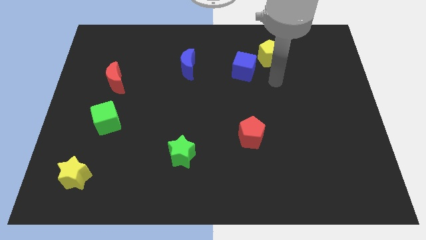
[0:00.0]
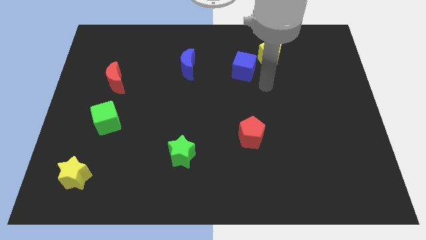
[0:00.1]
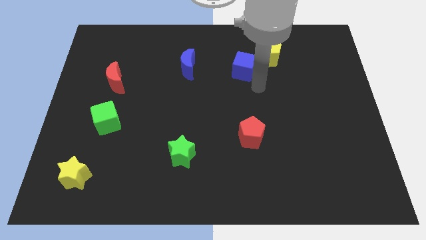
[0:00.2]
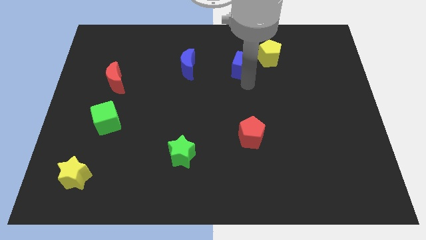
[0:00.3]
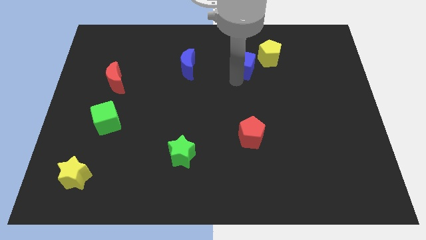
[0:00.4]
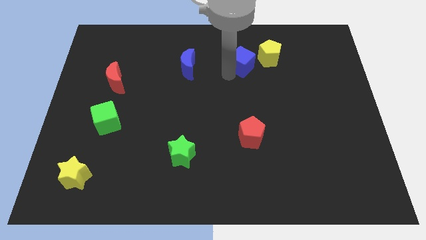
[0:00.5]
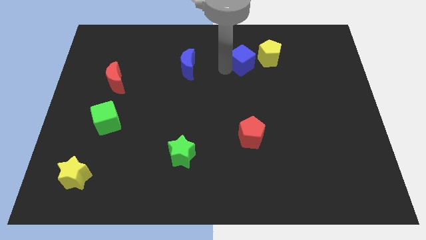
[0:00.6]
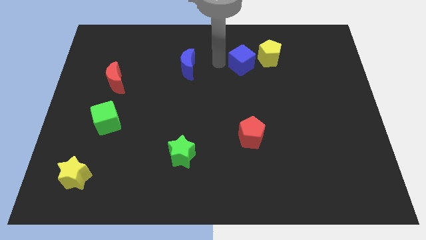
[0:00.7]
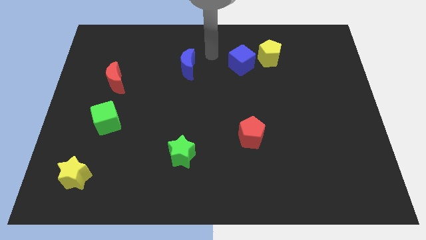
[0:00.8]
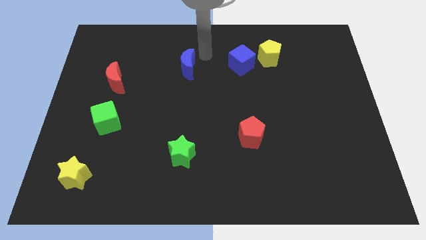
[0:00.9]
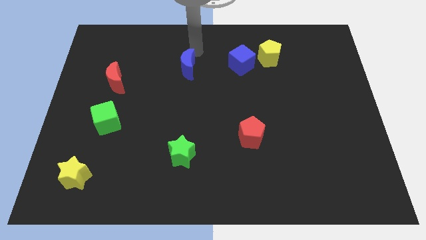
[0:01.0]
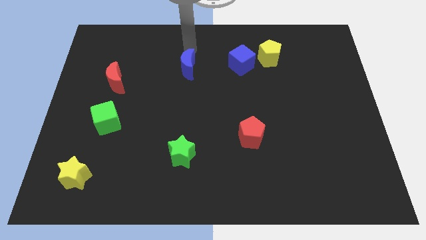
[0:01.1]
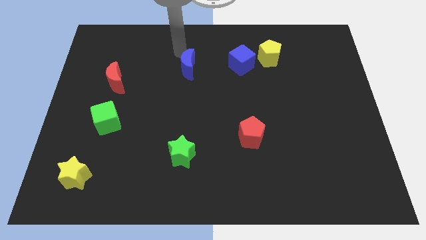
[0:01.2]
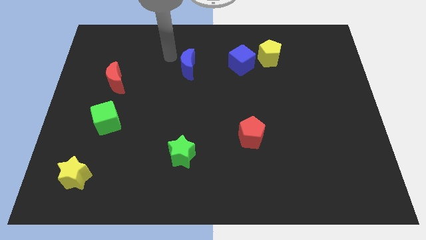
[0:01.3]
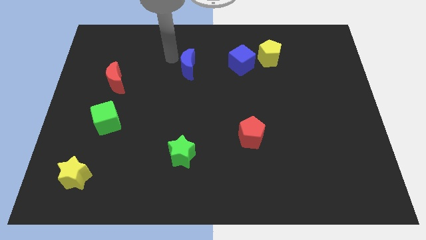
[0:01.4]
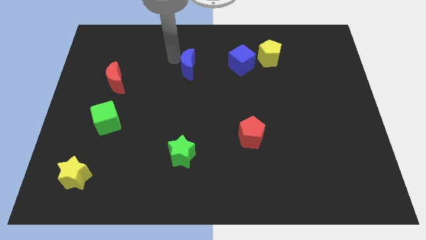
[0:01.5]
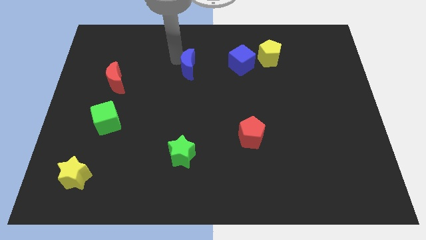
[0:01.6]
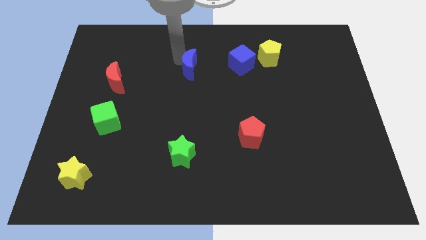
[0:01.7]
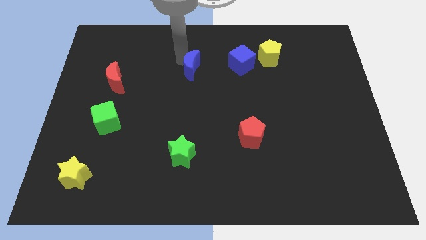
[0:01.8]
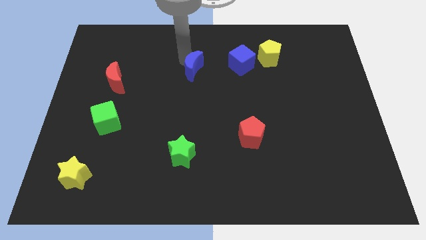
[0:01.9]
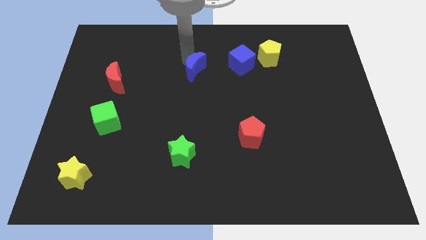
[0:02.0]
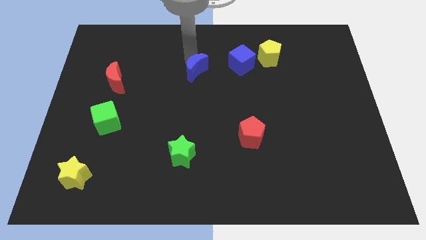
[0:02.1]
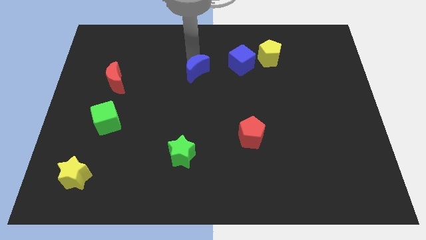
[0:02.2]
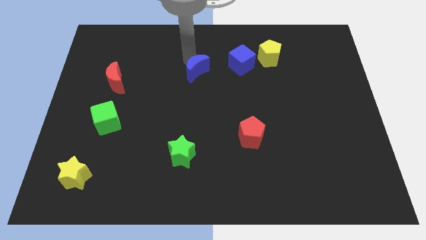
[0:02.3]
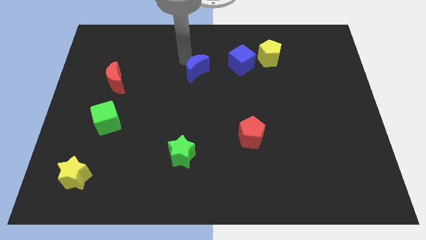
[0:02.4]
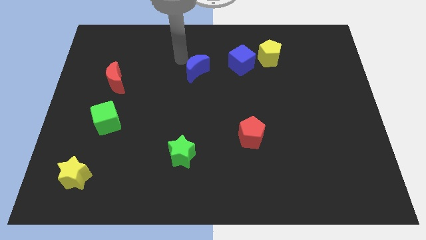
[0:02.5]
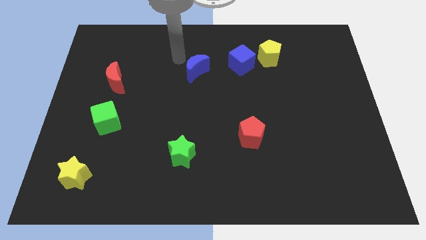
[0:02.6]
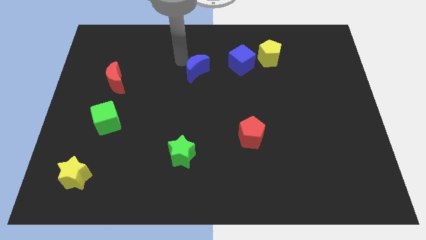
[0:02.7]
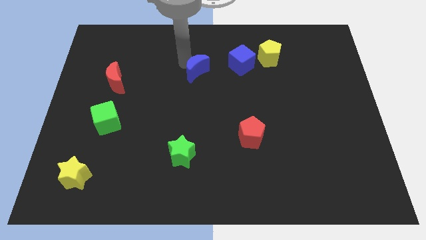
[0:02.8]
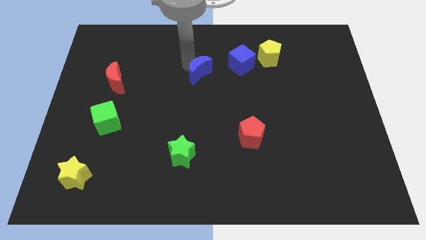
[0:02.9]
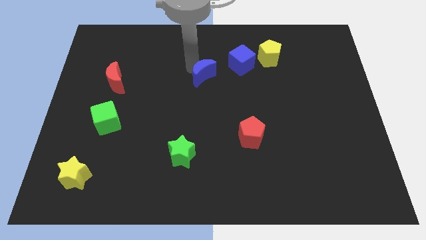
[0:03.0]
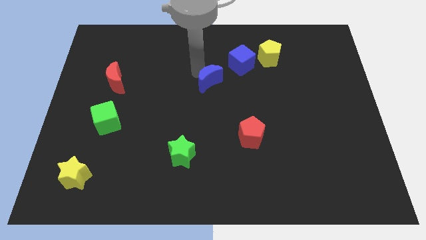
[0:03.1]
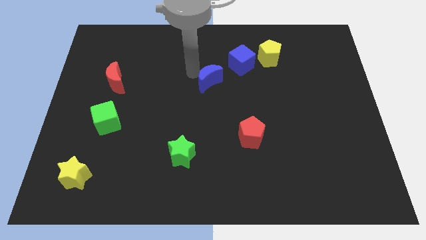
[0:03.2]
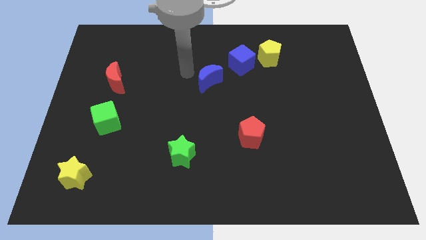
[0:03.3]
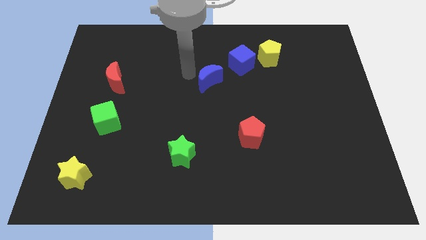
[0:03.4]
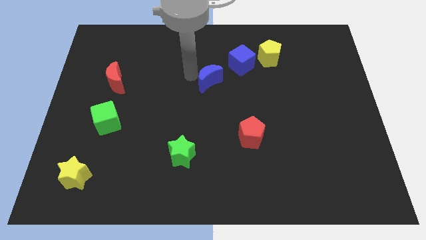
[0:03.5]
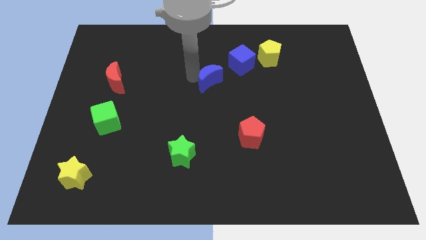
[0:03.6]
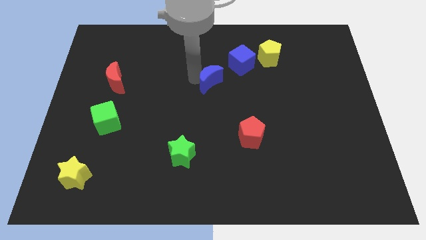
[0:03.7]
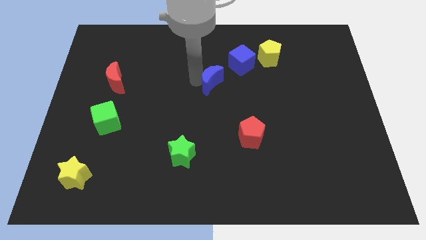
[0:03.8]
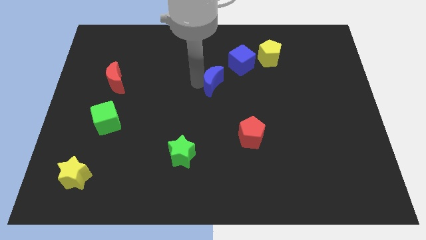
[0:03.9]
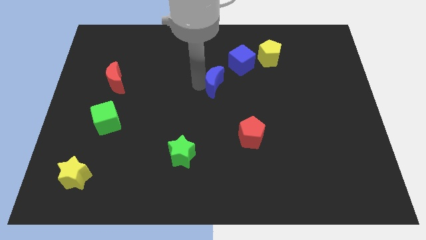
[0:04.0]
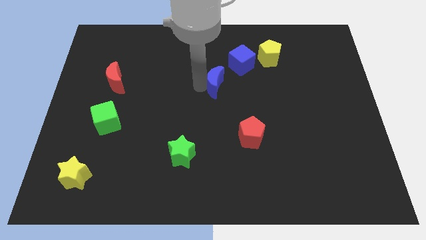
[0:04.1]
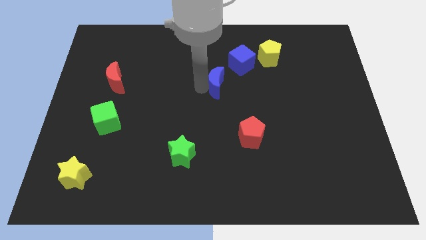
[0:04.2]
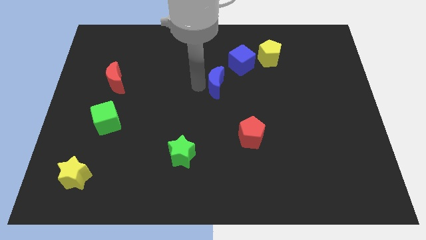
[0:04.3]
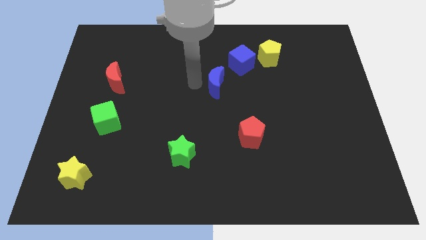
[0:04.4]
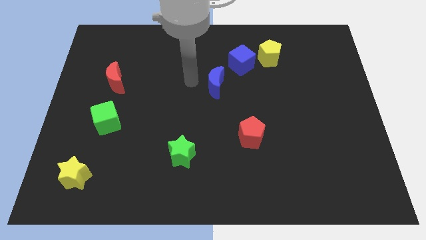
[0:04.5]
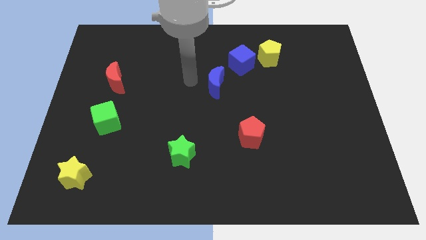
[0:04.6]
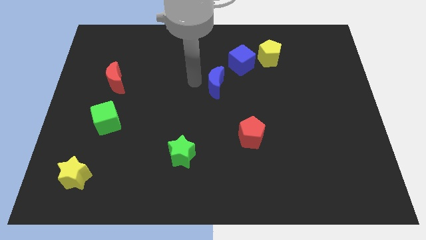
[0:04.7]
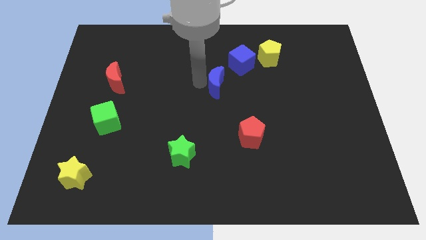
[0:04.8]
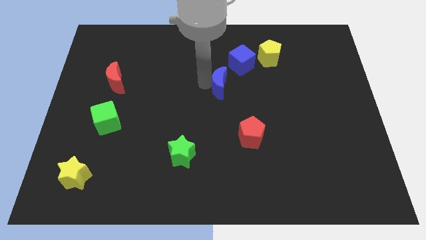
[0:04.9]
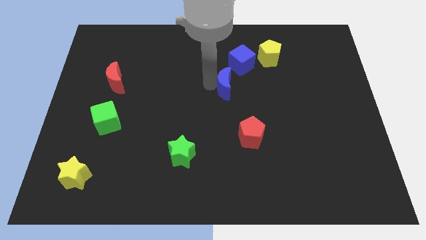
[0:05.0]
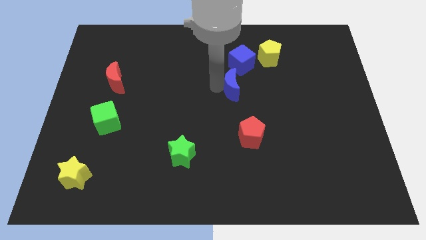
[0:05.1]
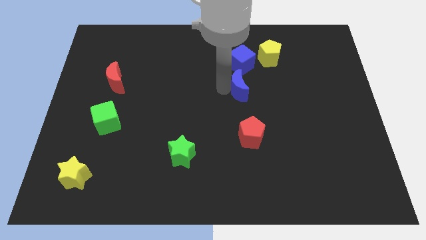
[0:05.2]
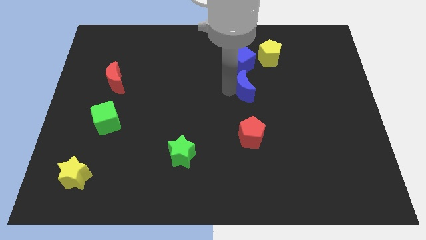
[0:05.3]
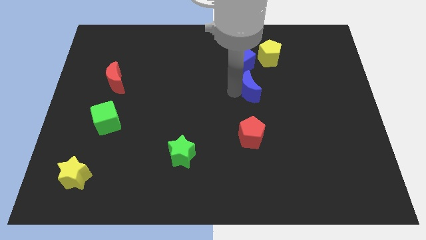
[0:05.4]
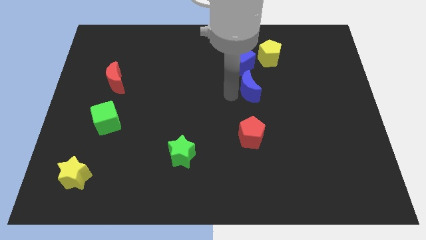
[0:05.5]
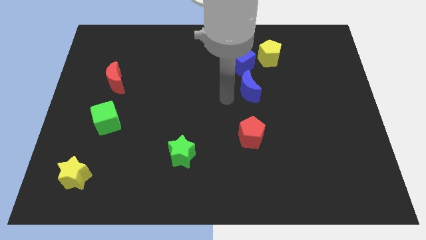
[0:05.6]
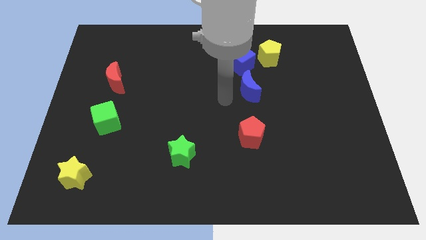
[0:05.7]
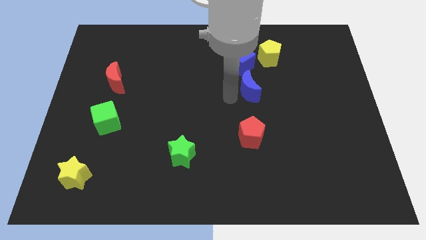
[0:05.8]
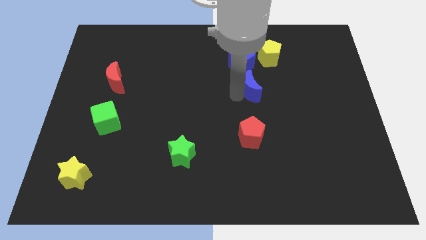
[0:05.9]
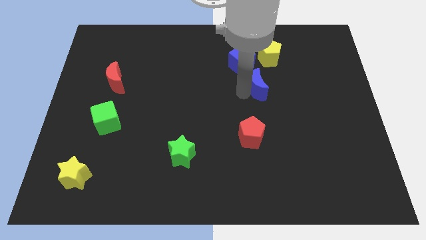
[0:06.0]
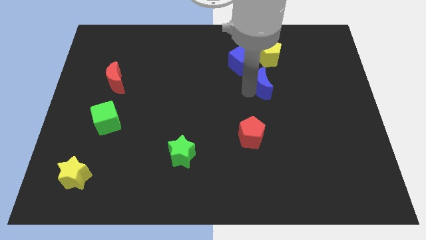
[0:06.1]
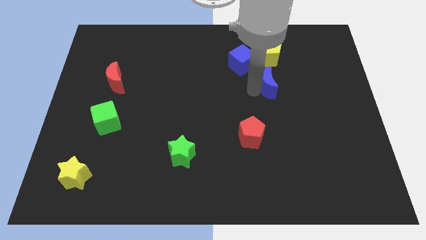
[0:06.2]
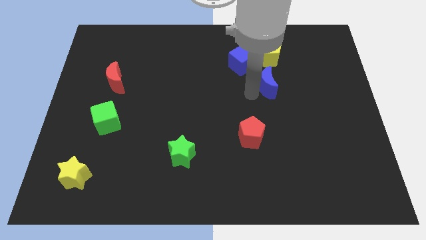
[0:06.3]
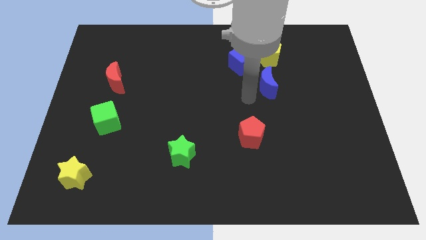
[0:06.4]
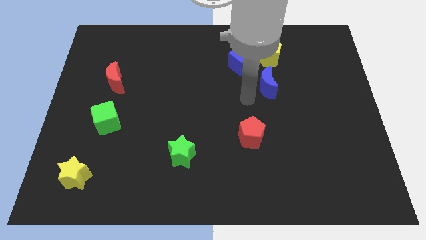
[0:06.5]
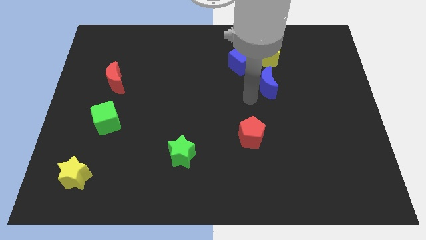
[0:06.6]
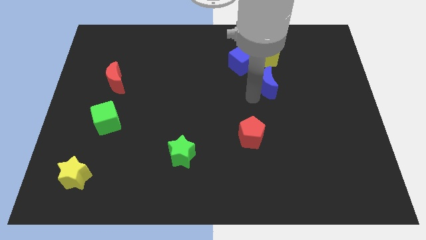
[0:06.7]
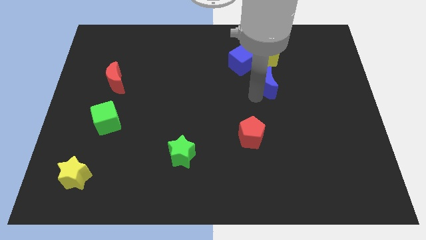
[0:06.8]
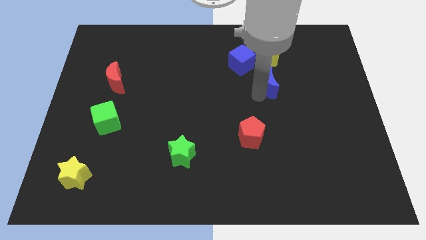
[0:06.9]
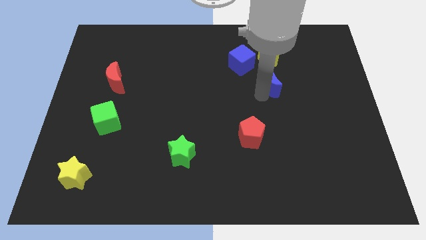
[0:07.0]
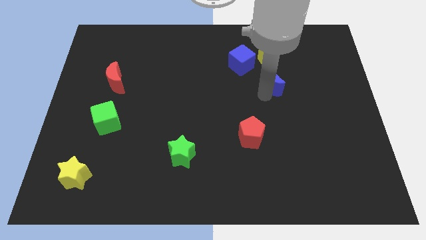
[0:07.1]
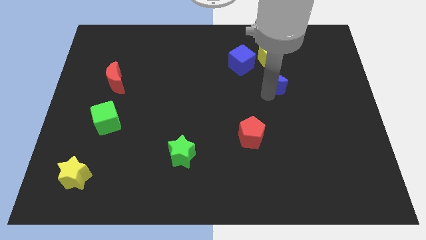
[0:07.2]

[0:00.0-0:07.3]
slide the blue moon to the right

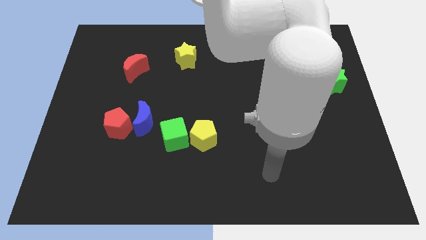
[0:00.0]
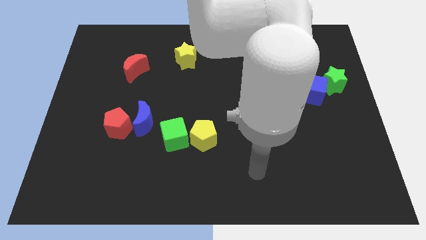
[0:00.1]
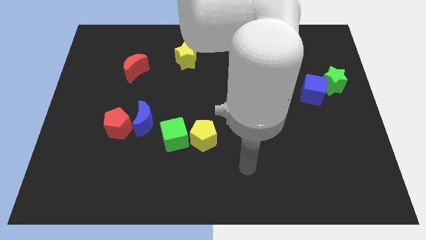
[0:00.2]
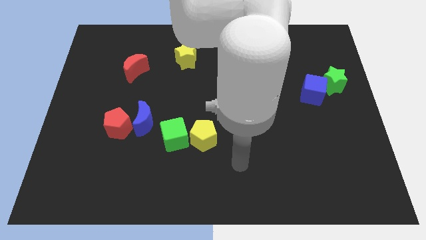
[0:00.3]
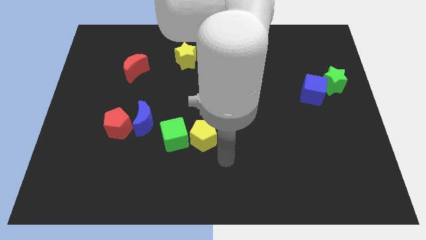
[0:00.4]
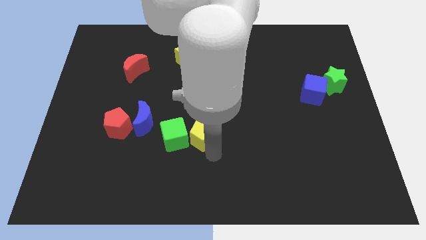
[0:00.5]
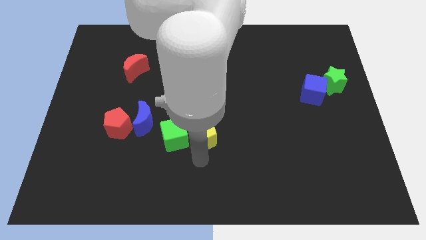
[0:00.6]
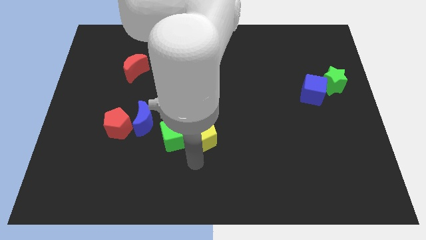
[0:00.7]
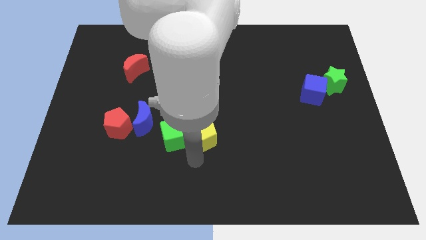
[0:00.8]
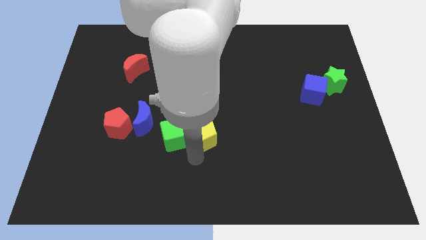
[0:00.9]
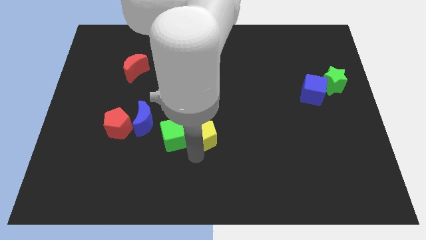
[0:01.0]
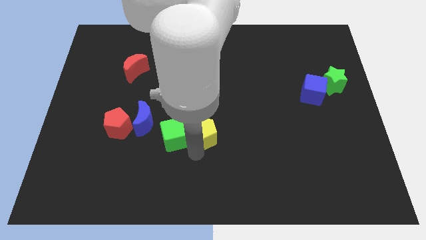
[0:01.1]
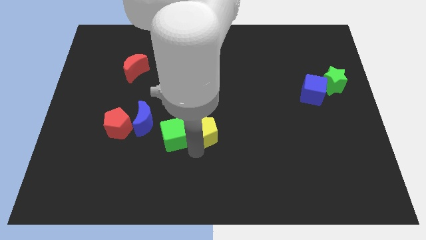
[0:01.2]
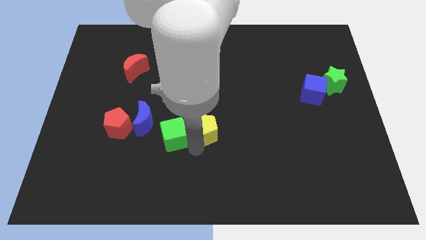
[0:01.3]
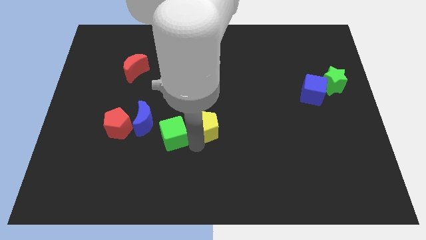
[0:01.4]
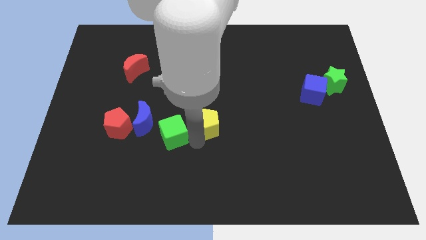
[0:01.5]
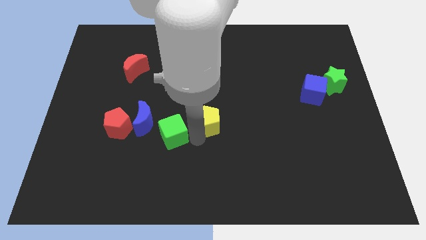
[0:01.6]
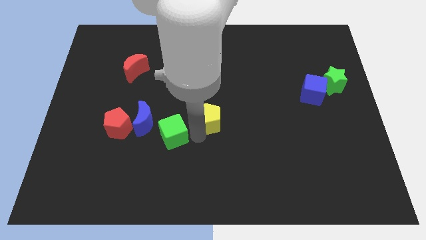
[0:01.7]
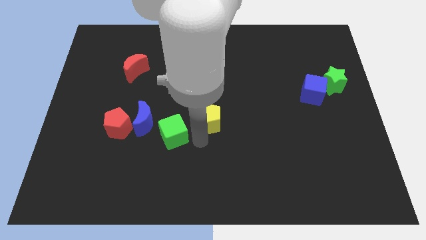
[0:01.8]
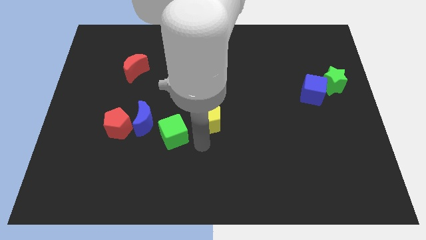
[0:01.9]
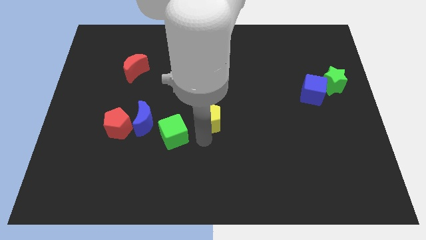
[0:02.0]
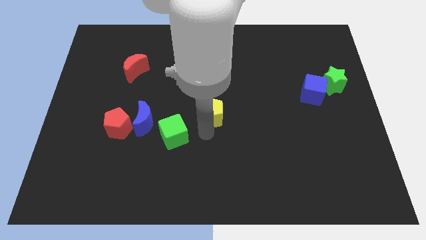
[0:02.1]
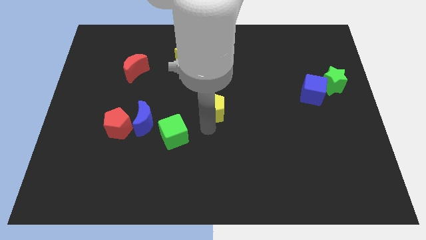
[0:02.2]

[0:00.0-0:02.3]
slide the yellow pentagon upwards a little bit
